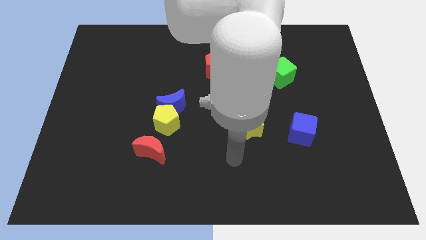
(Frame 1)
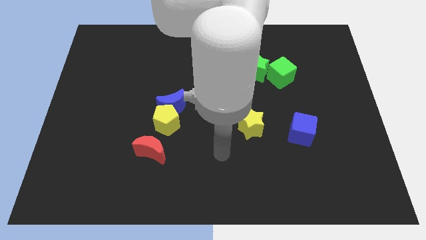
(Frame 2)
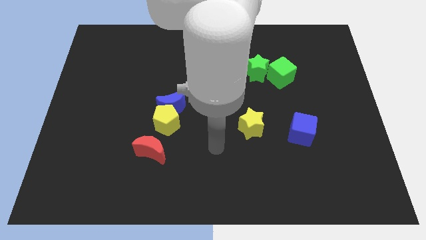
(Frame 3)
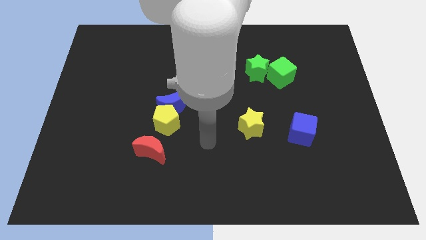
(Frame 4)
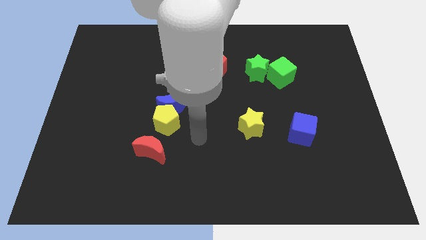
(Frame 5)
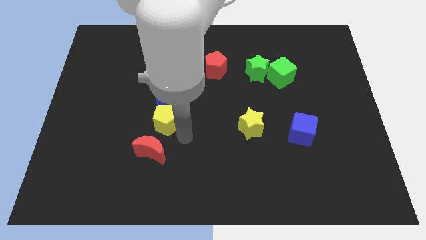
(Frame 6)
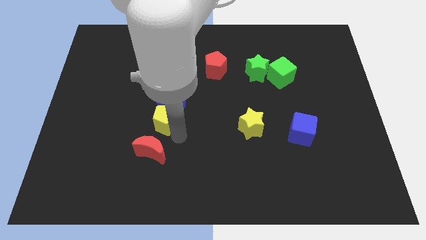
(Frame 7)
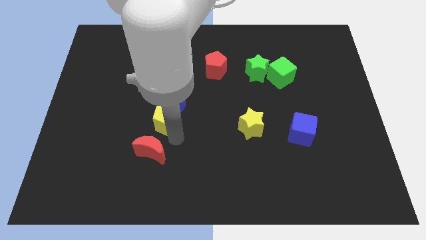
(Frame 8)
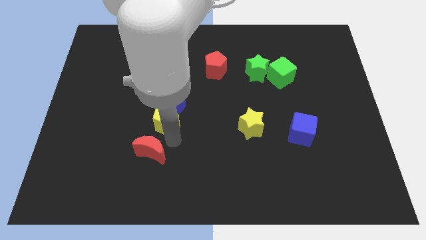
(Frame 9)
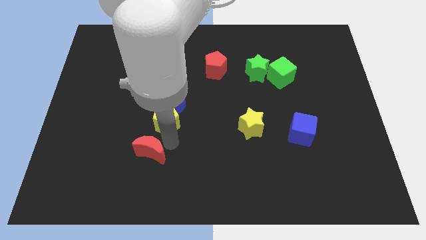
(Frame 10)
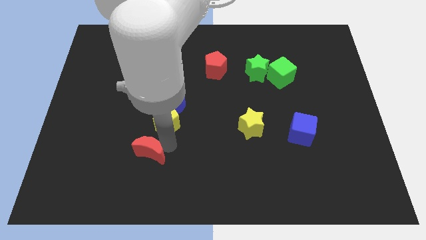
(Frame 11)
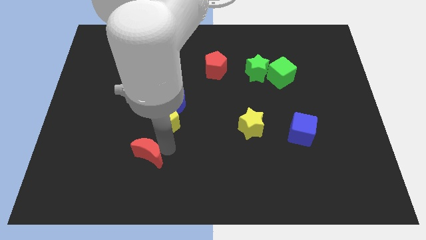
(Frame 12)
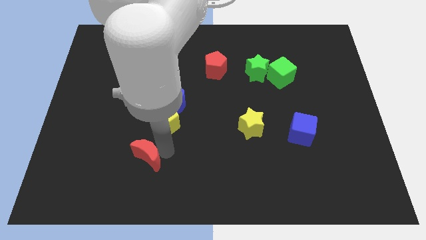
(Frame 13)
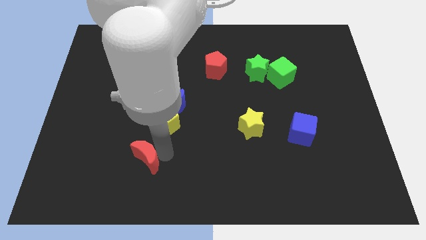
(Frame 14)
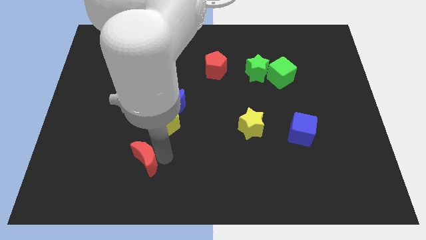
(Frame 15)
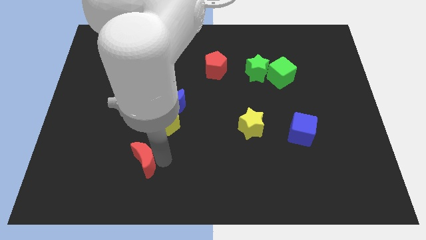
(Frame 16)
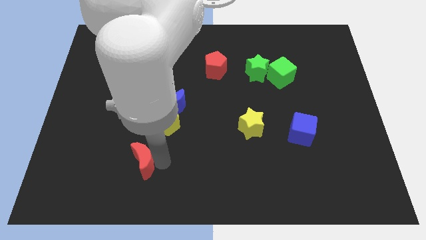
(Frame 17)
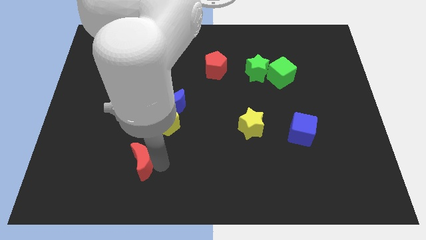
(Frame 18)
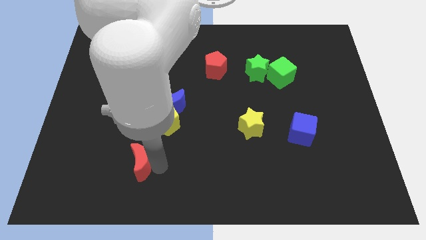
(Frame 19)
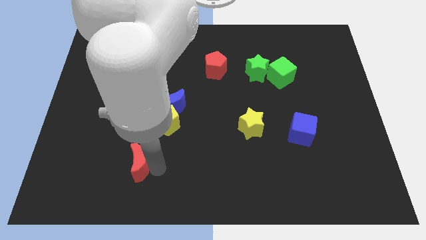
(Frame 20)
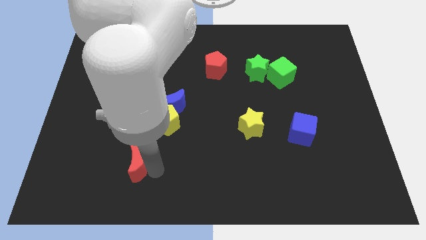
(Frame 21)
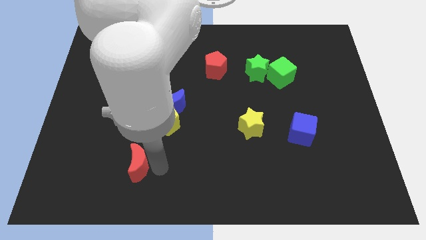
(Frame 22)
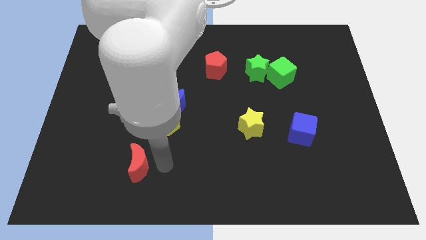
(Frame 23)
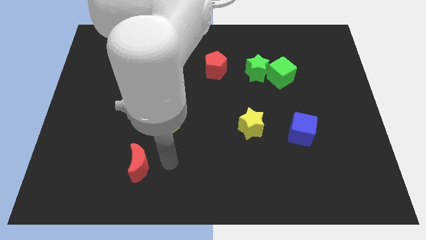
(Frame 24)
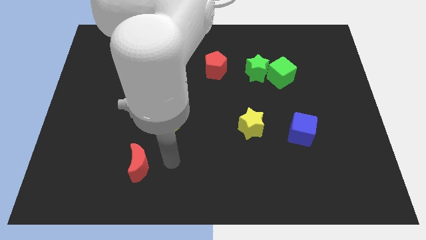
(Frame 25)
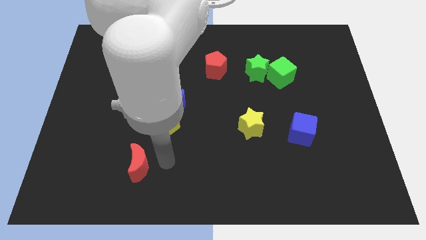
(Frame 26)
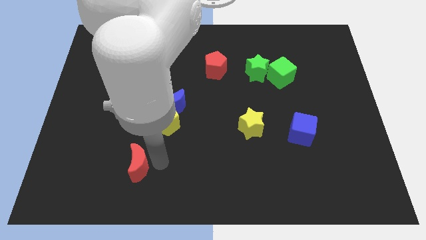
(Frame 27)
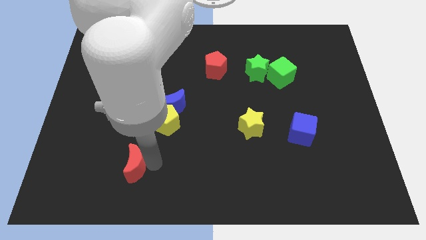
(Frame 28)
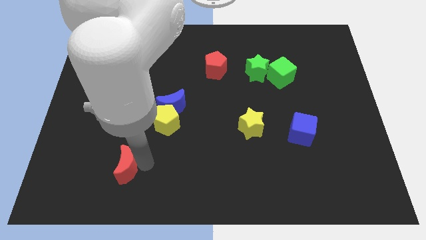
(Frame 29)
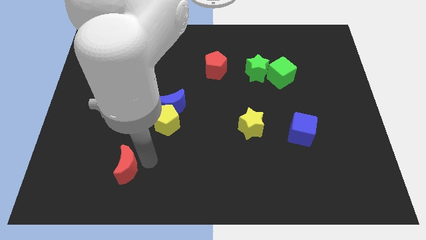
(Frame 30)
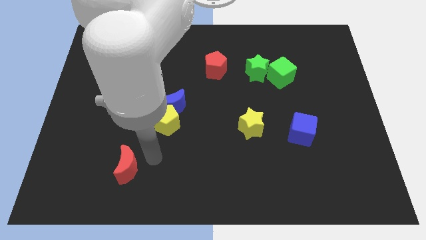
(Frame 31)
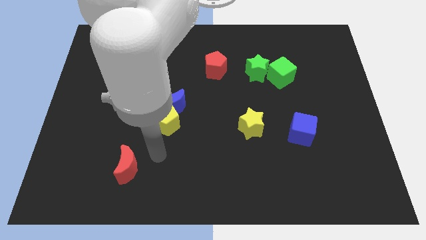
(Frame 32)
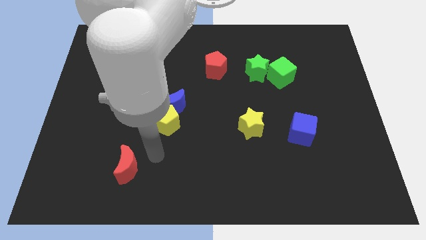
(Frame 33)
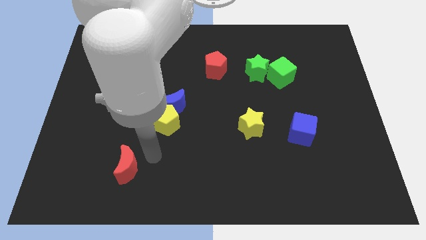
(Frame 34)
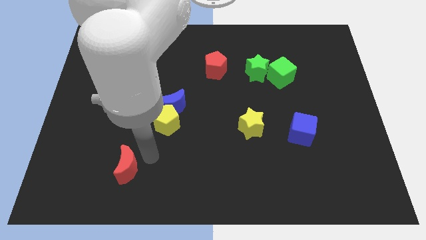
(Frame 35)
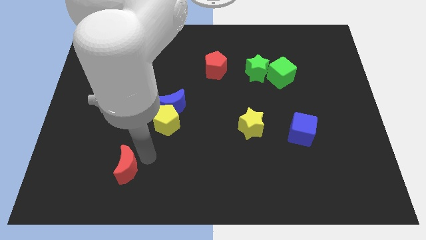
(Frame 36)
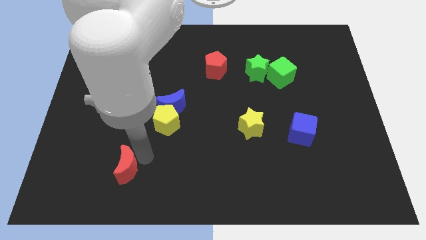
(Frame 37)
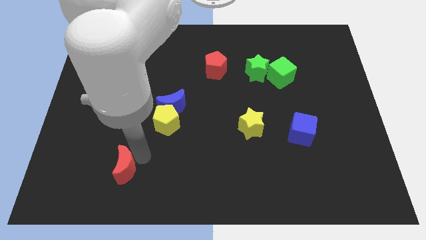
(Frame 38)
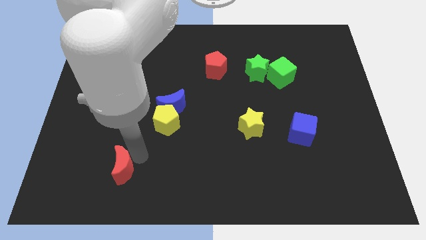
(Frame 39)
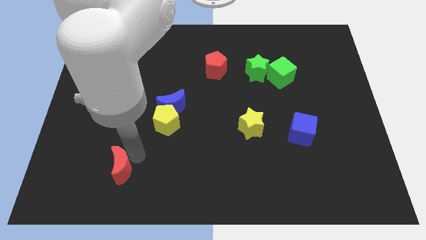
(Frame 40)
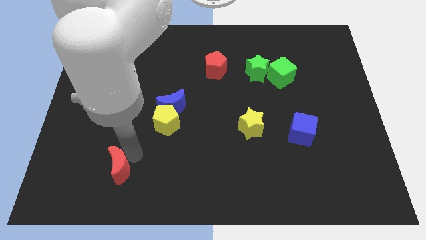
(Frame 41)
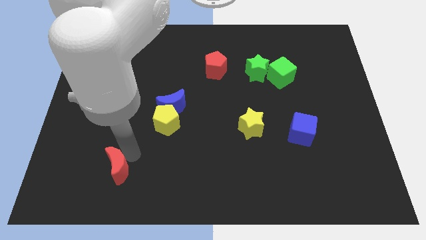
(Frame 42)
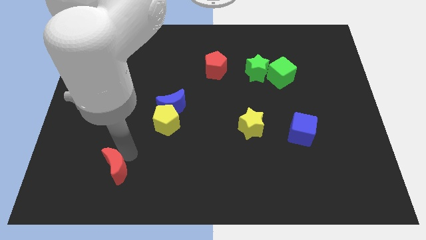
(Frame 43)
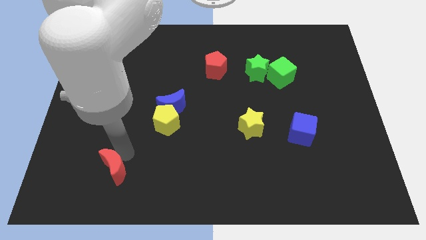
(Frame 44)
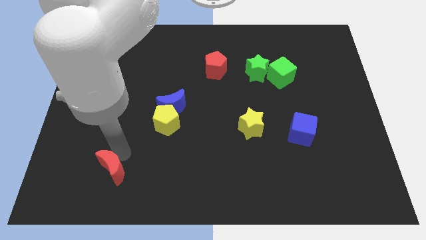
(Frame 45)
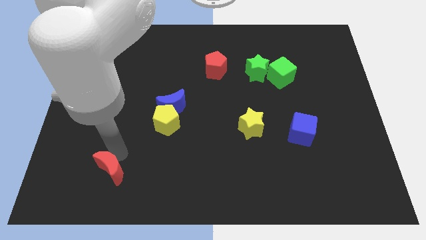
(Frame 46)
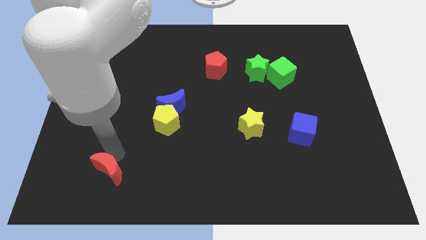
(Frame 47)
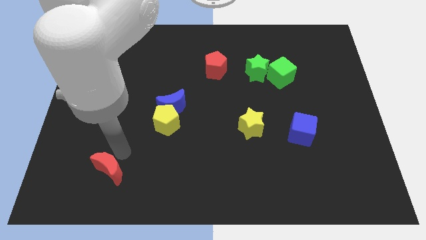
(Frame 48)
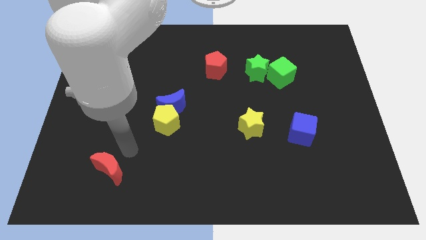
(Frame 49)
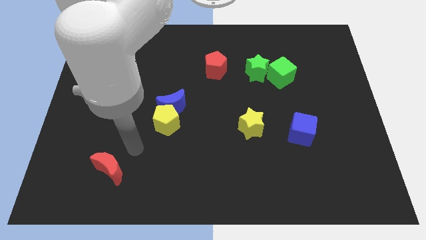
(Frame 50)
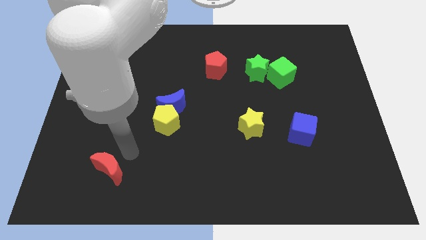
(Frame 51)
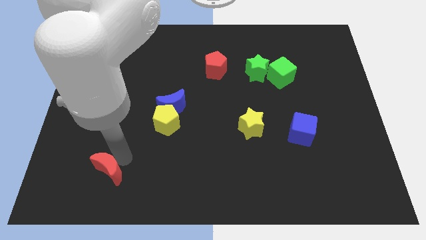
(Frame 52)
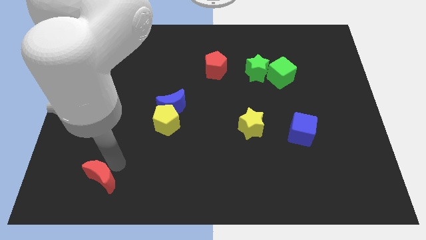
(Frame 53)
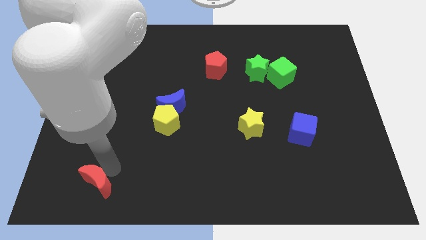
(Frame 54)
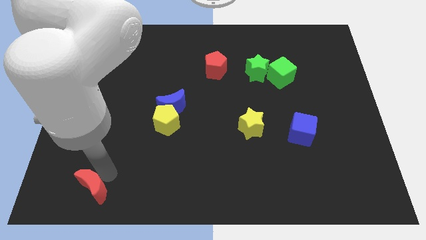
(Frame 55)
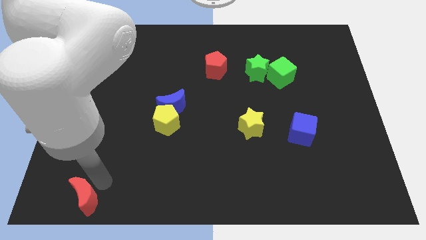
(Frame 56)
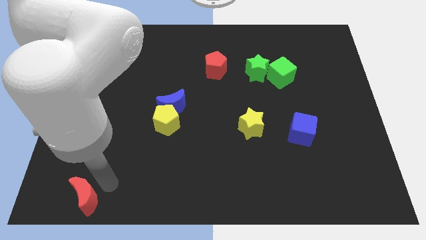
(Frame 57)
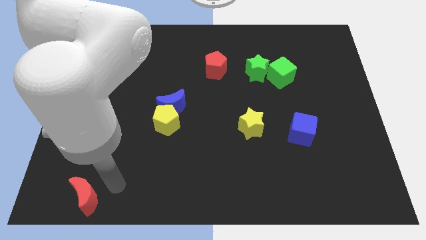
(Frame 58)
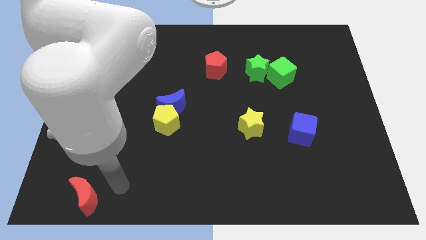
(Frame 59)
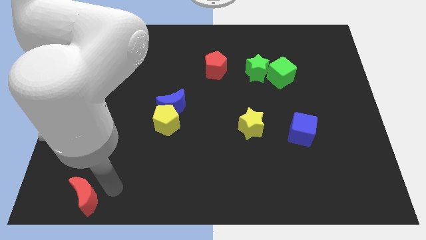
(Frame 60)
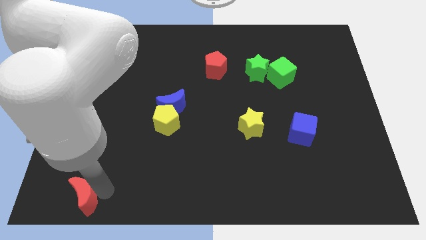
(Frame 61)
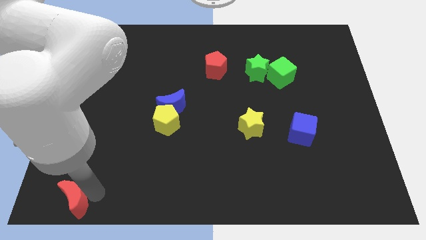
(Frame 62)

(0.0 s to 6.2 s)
push the red moon to the bottom left corner
